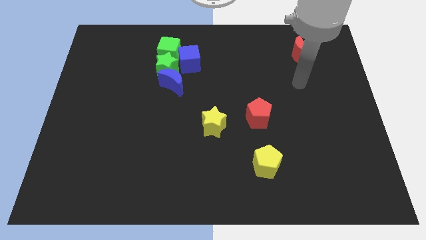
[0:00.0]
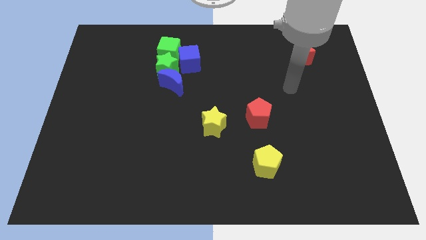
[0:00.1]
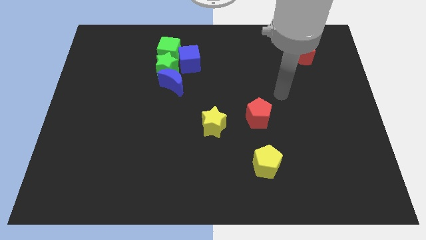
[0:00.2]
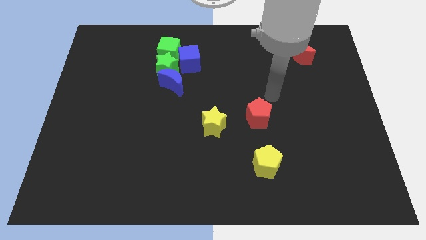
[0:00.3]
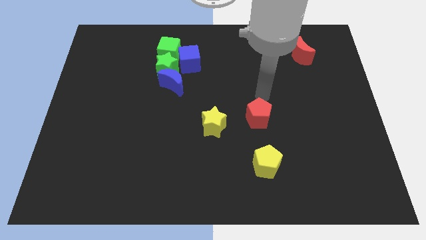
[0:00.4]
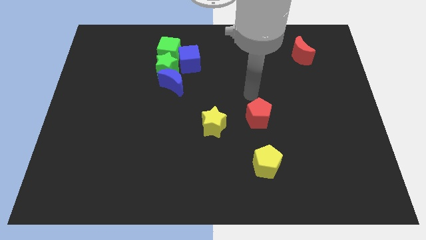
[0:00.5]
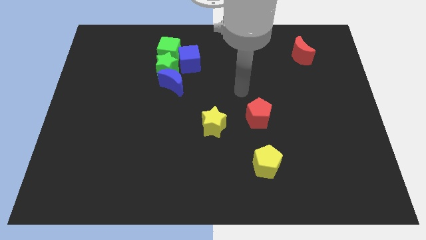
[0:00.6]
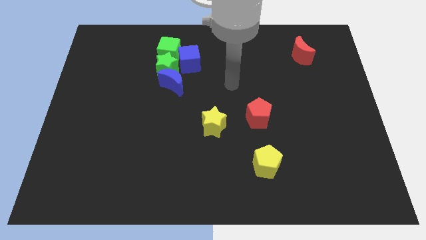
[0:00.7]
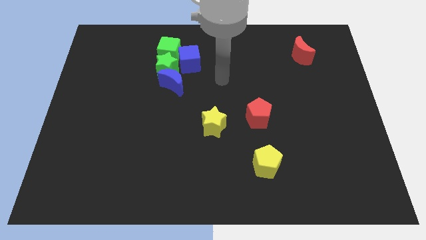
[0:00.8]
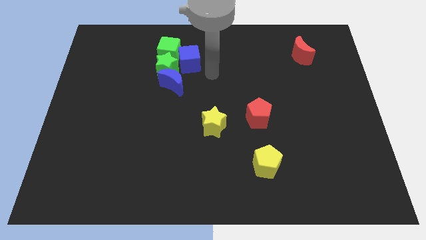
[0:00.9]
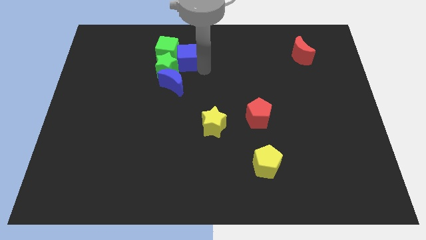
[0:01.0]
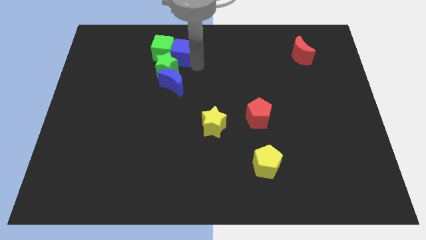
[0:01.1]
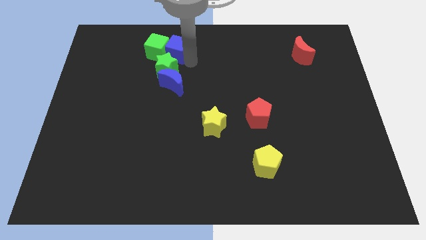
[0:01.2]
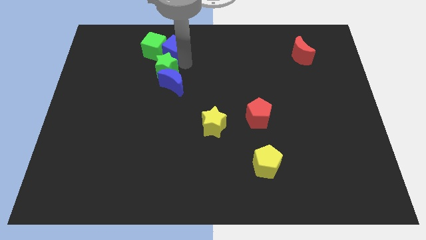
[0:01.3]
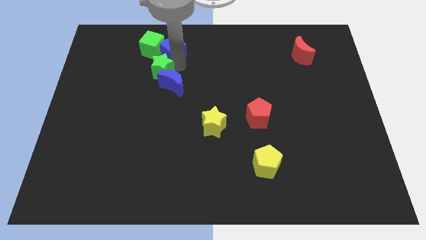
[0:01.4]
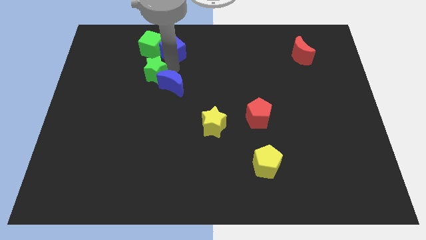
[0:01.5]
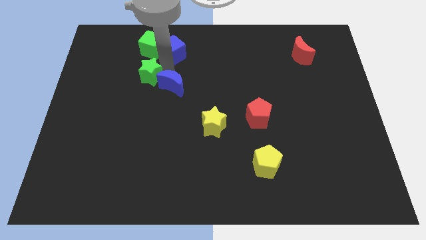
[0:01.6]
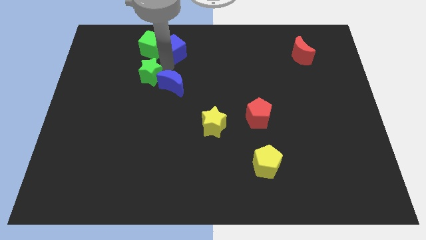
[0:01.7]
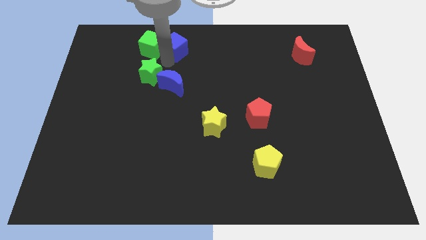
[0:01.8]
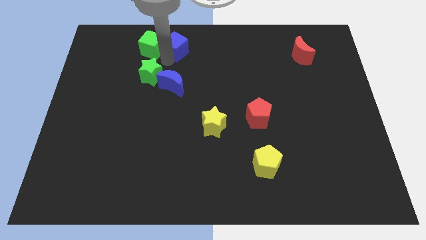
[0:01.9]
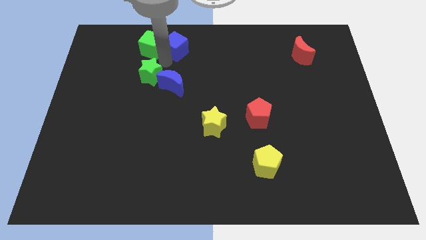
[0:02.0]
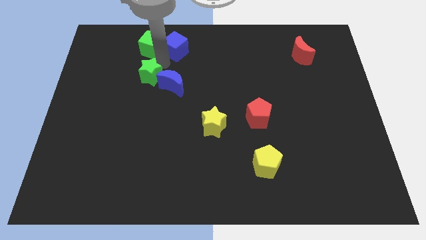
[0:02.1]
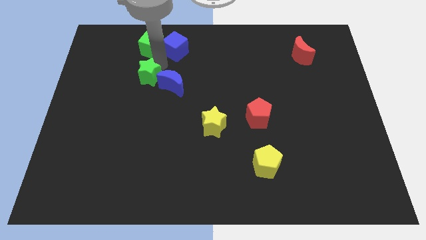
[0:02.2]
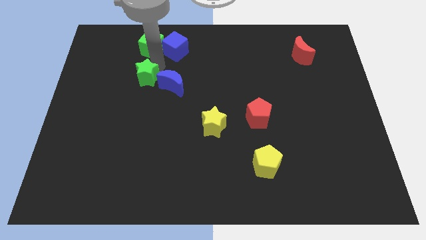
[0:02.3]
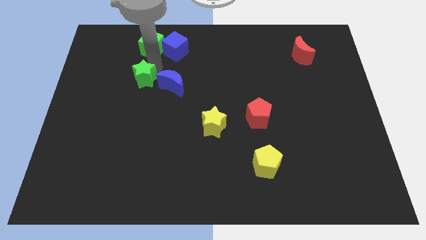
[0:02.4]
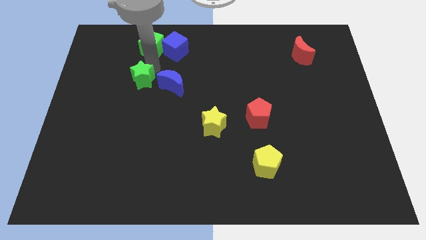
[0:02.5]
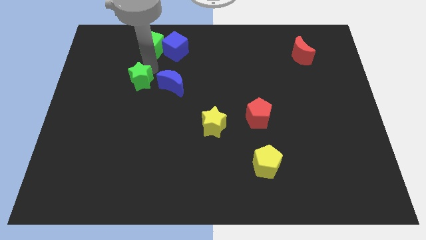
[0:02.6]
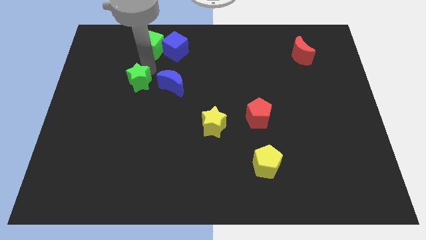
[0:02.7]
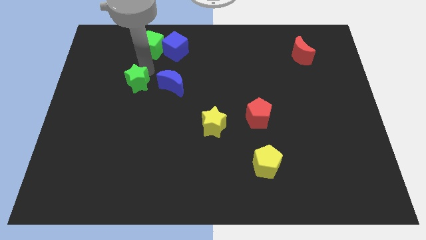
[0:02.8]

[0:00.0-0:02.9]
pull the green star apart from the blue moon, green cube, and blue cube

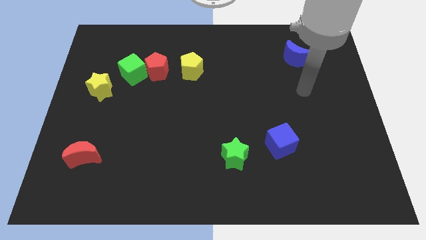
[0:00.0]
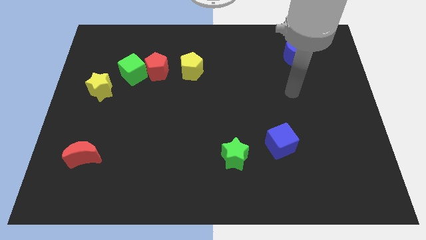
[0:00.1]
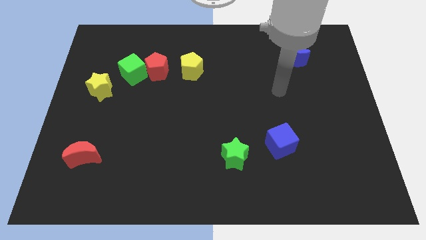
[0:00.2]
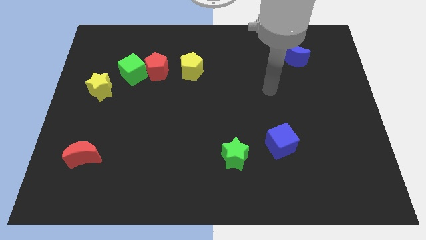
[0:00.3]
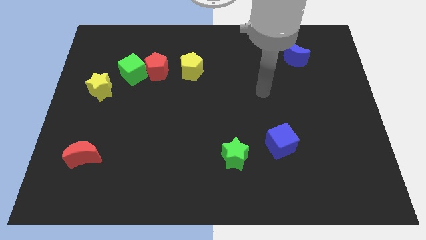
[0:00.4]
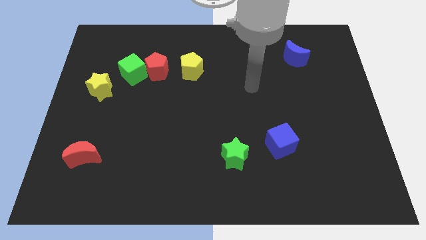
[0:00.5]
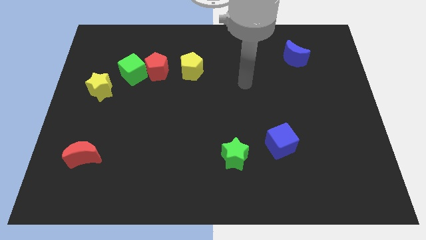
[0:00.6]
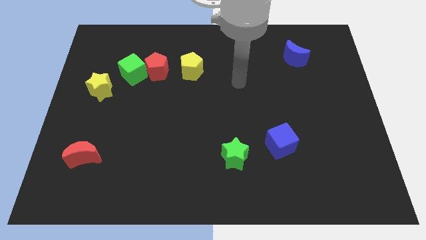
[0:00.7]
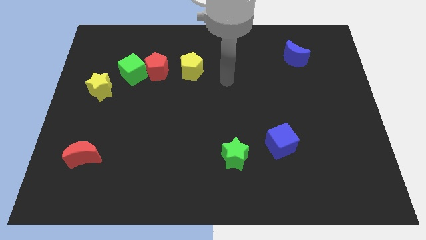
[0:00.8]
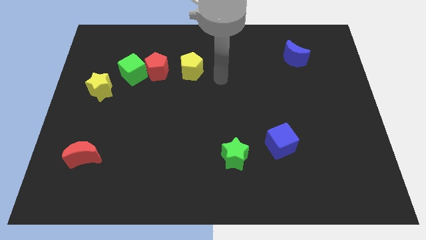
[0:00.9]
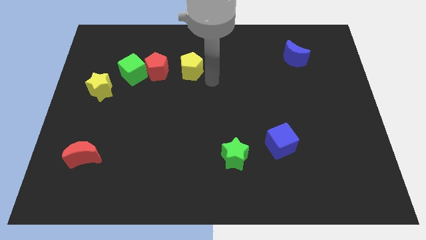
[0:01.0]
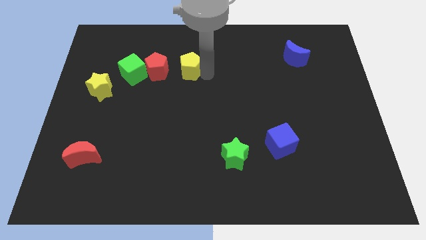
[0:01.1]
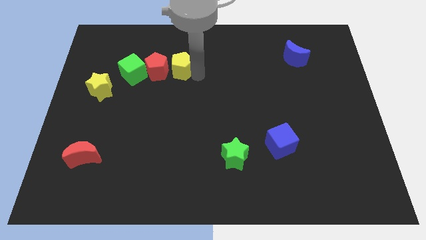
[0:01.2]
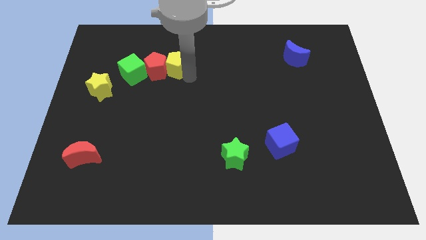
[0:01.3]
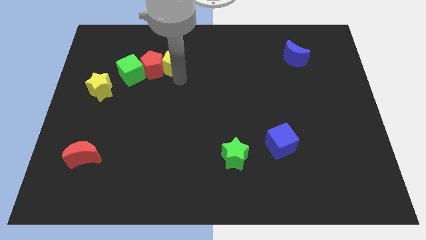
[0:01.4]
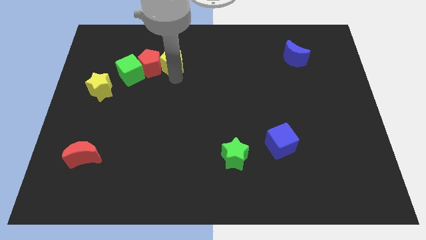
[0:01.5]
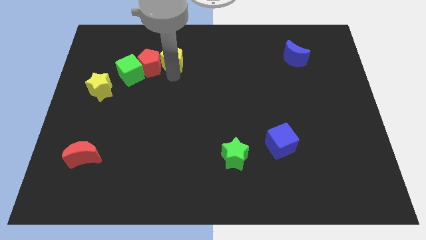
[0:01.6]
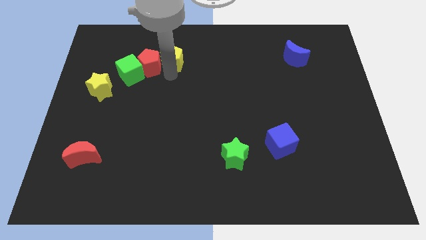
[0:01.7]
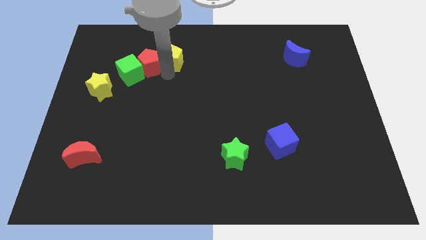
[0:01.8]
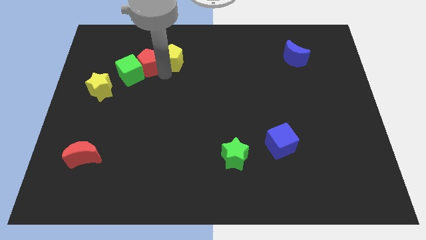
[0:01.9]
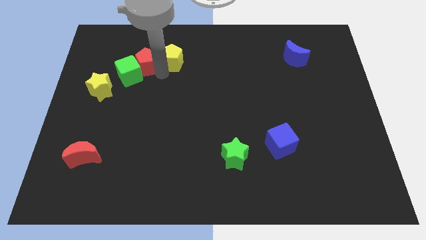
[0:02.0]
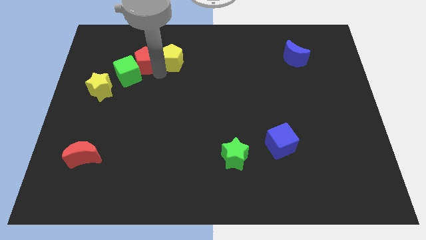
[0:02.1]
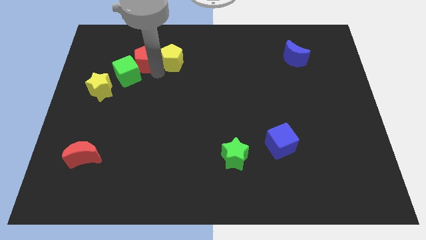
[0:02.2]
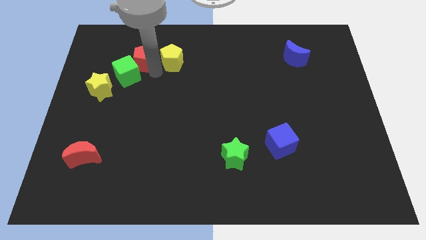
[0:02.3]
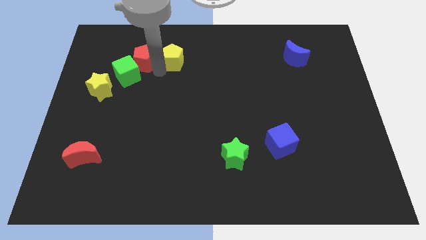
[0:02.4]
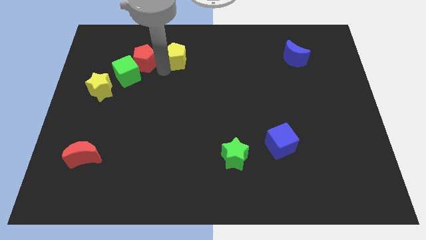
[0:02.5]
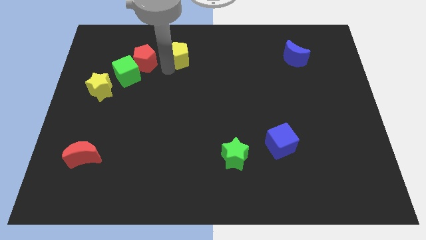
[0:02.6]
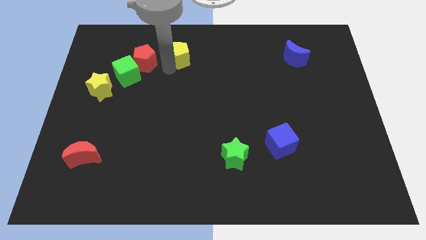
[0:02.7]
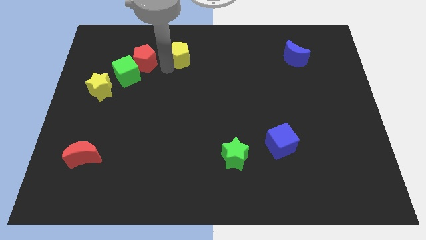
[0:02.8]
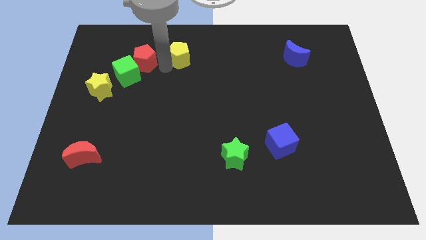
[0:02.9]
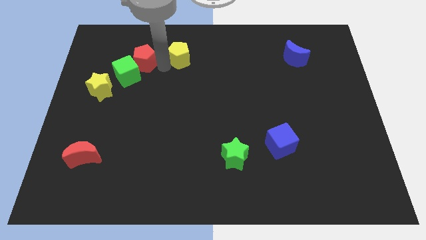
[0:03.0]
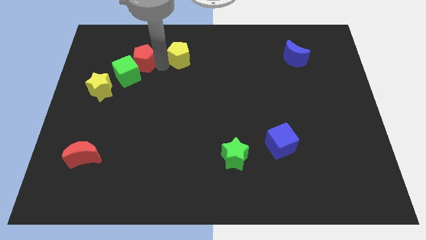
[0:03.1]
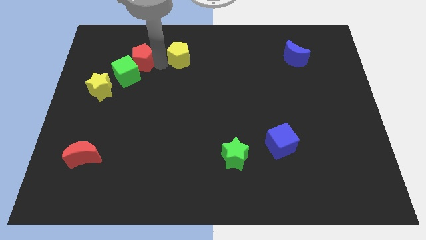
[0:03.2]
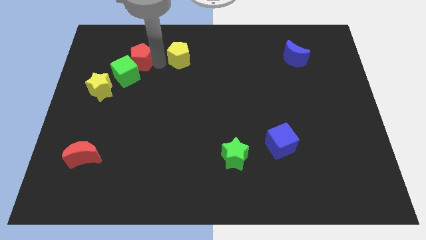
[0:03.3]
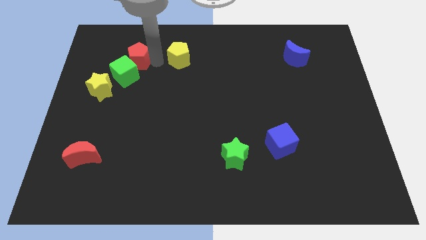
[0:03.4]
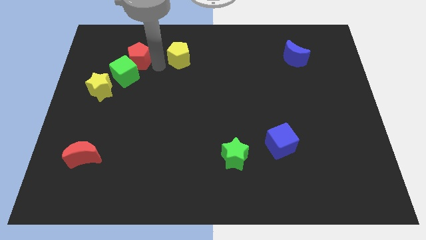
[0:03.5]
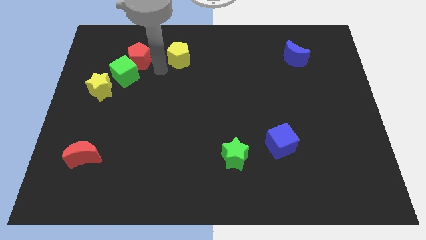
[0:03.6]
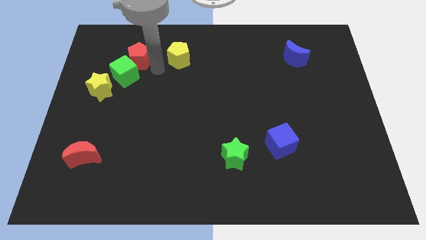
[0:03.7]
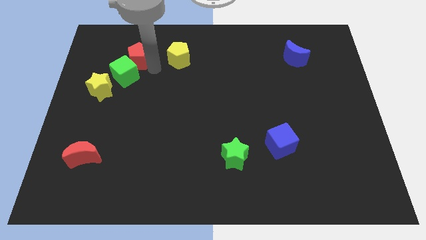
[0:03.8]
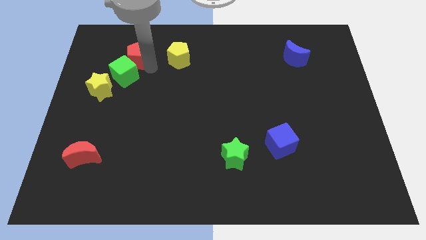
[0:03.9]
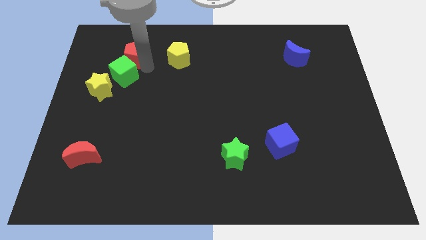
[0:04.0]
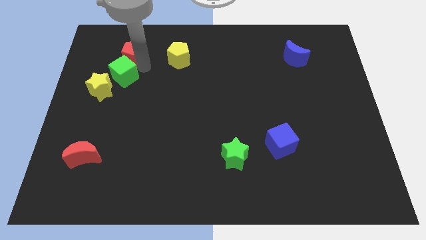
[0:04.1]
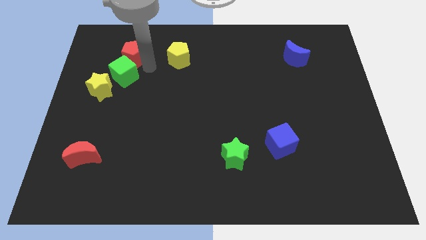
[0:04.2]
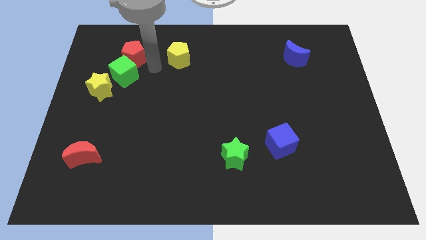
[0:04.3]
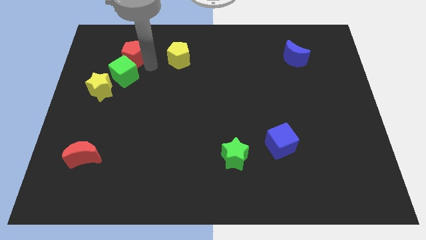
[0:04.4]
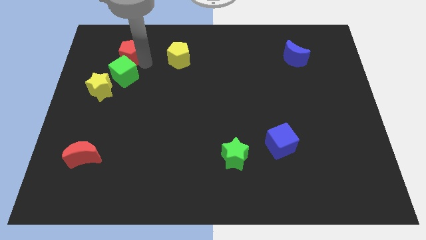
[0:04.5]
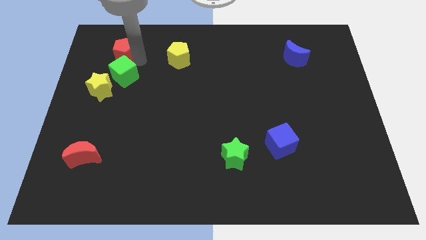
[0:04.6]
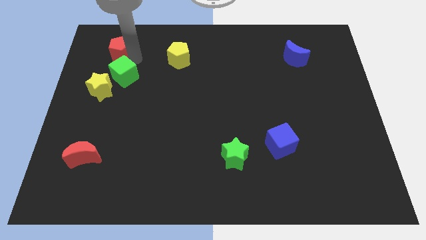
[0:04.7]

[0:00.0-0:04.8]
move the red pentagon away from the green cube and yellow pentagon

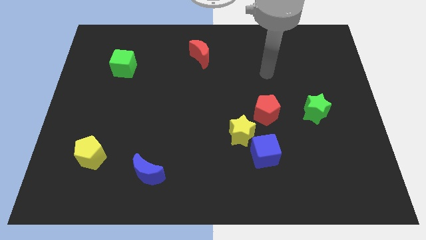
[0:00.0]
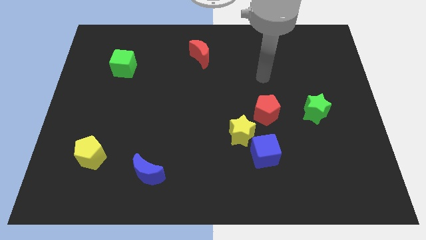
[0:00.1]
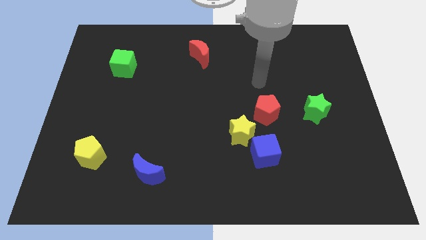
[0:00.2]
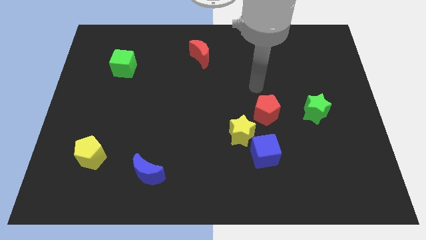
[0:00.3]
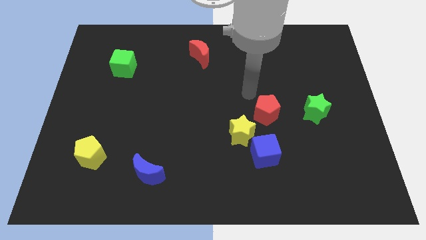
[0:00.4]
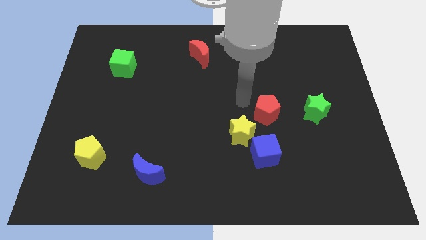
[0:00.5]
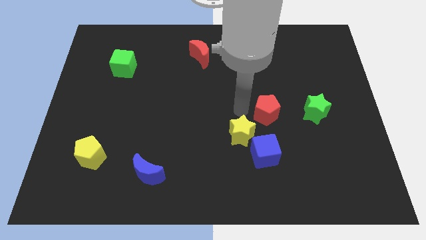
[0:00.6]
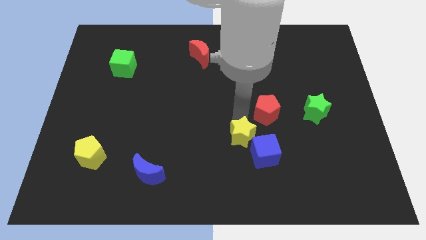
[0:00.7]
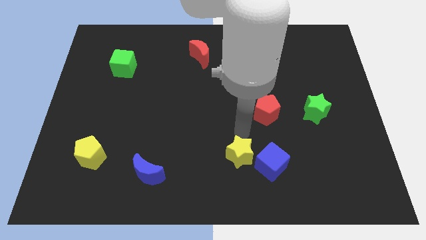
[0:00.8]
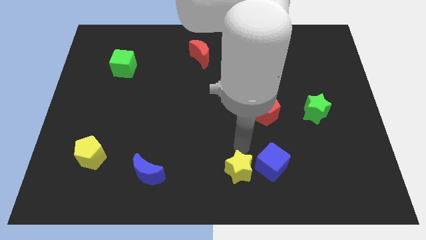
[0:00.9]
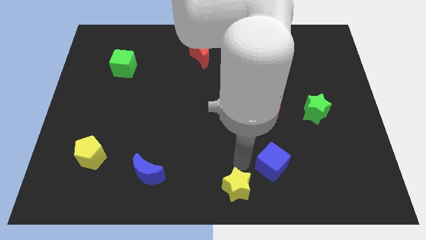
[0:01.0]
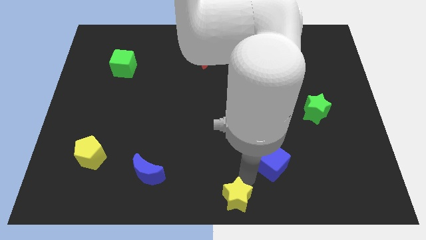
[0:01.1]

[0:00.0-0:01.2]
move the blue cube away from the yellow star

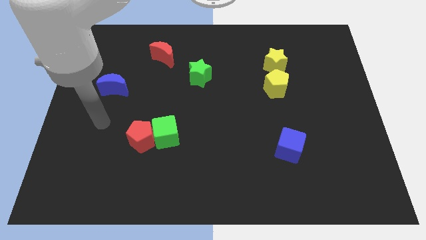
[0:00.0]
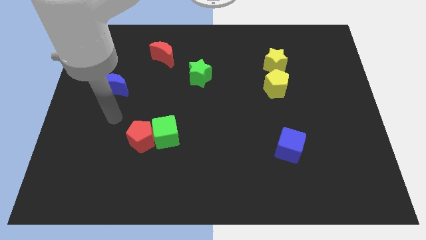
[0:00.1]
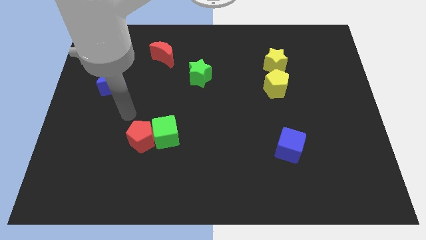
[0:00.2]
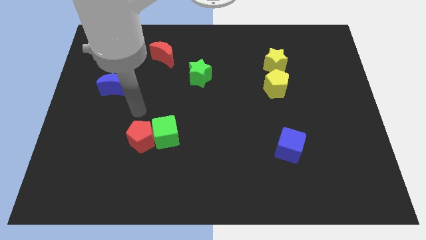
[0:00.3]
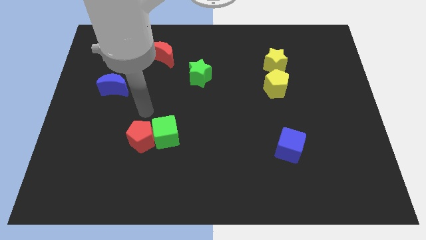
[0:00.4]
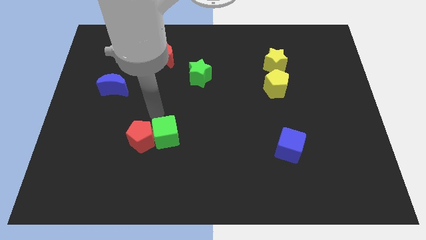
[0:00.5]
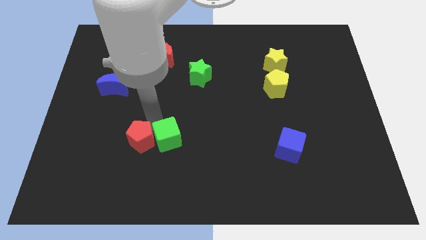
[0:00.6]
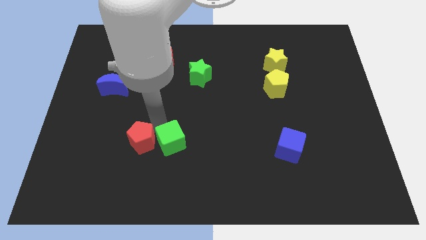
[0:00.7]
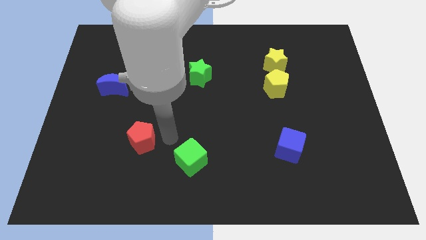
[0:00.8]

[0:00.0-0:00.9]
move the red pentagon away from the green cube
